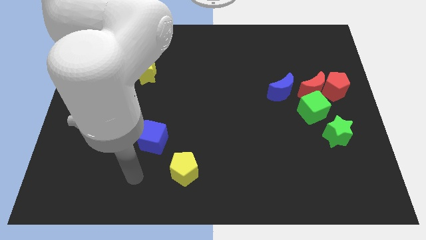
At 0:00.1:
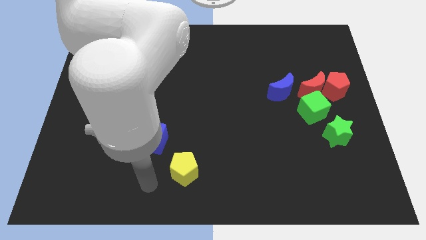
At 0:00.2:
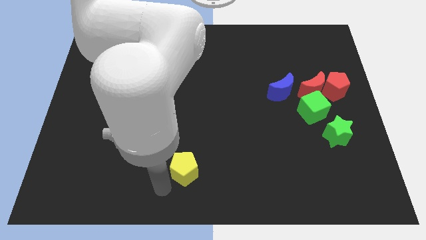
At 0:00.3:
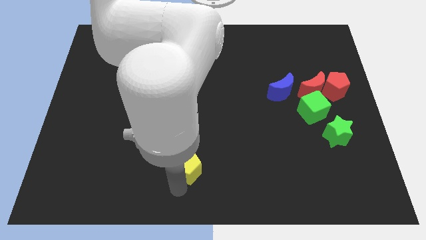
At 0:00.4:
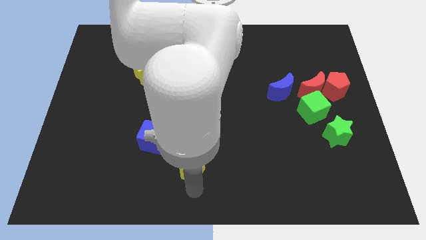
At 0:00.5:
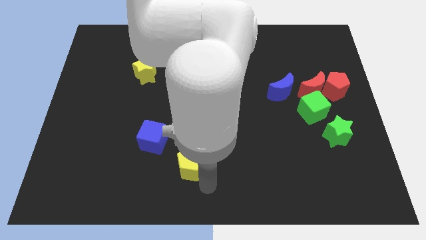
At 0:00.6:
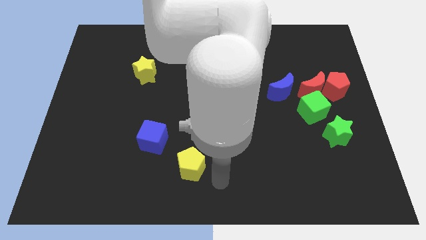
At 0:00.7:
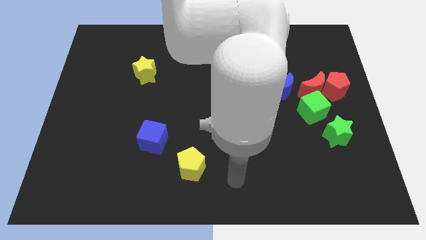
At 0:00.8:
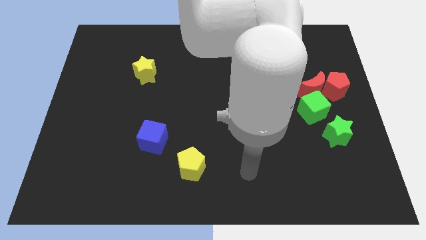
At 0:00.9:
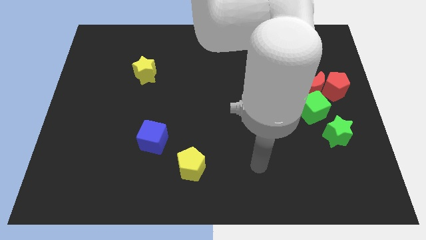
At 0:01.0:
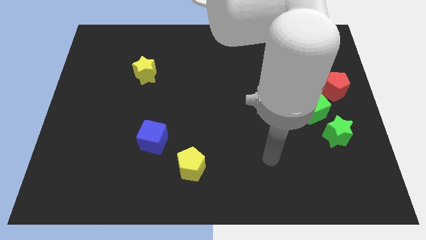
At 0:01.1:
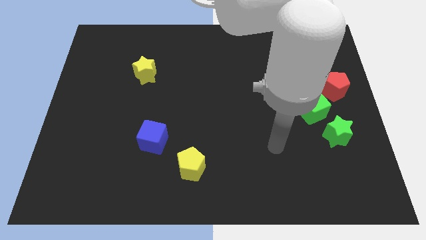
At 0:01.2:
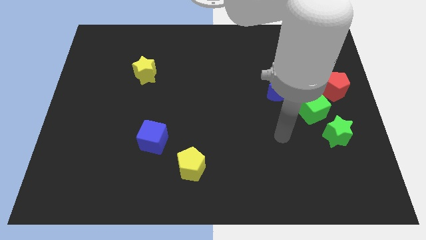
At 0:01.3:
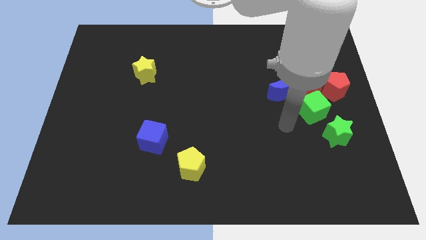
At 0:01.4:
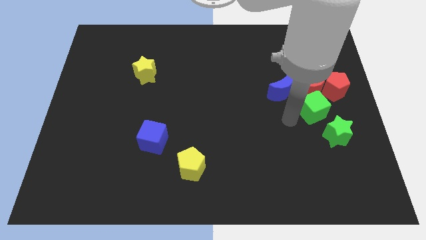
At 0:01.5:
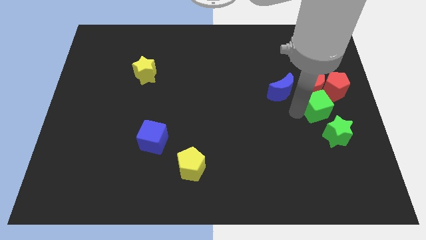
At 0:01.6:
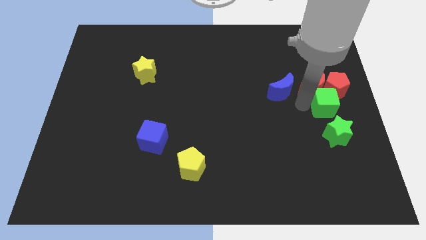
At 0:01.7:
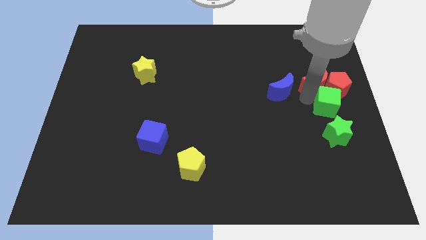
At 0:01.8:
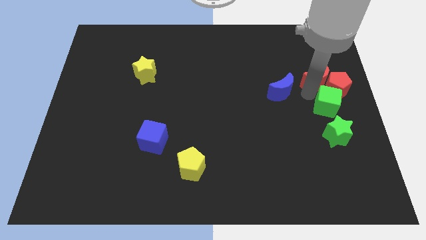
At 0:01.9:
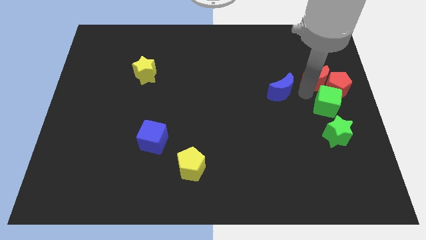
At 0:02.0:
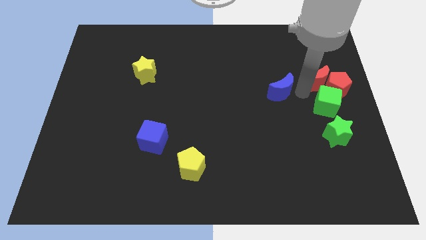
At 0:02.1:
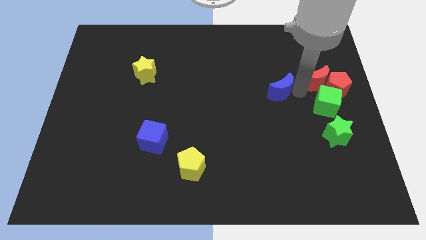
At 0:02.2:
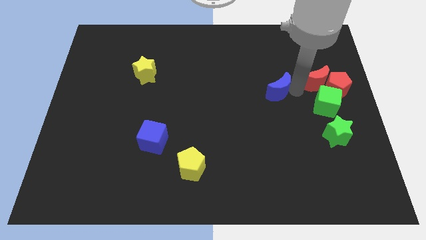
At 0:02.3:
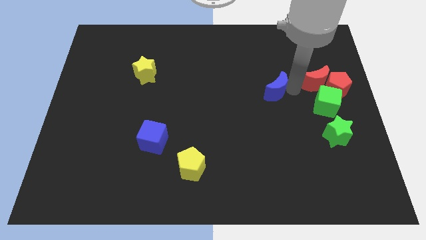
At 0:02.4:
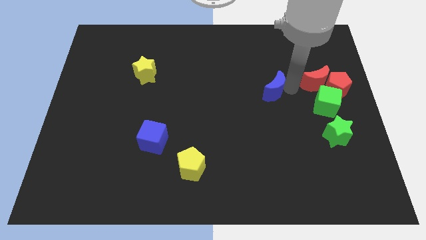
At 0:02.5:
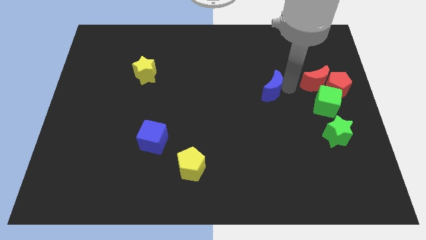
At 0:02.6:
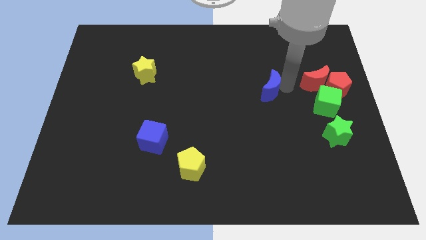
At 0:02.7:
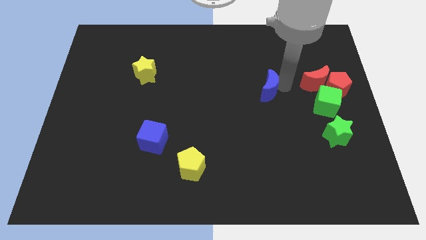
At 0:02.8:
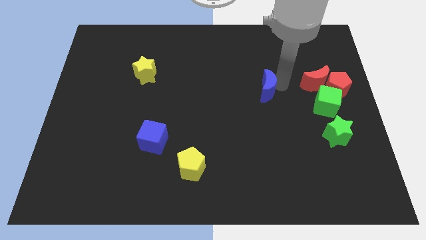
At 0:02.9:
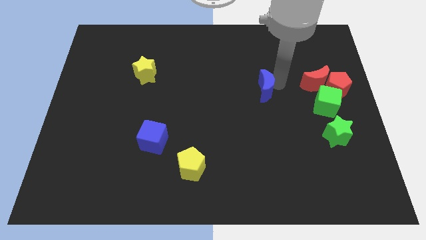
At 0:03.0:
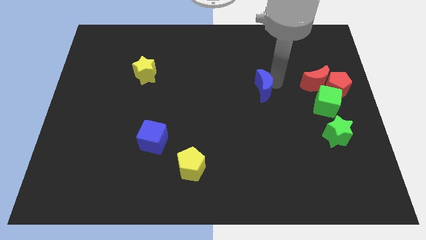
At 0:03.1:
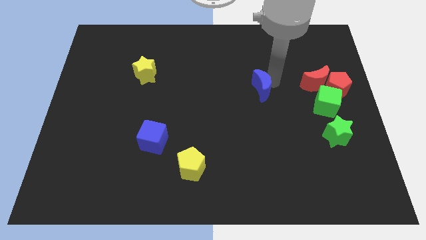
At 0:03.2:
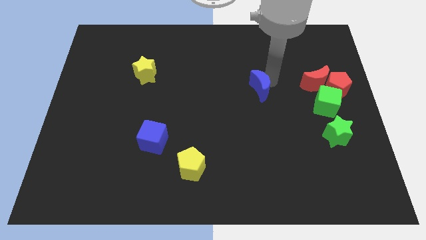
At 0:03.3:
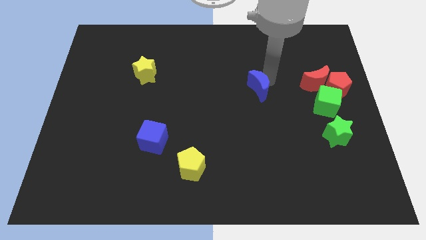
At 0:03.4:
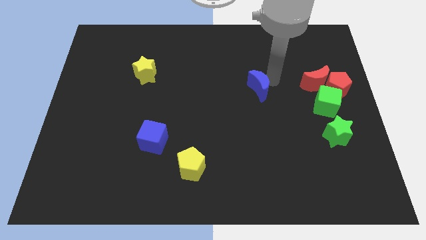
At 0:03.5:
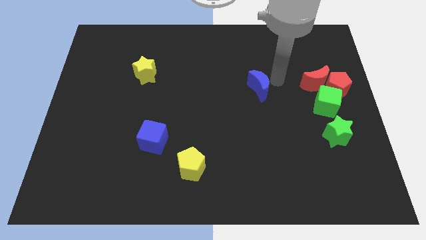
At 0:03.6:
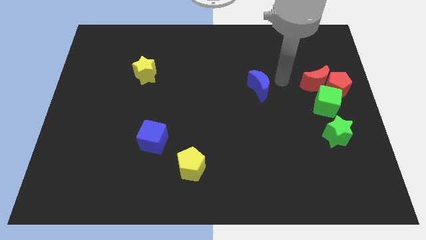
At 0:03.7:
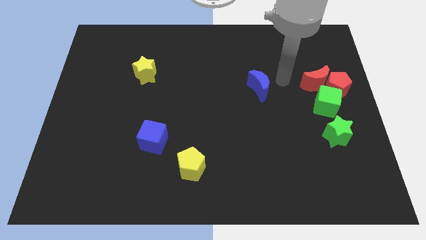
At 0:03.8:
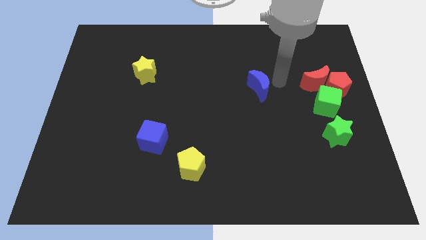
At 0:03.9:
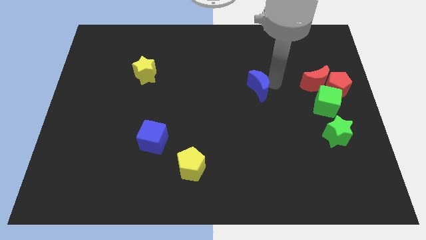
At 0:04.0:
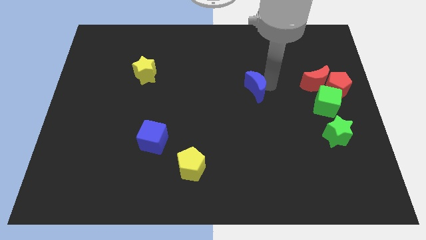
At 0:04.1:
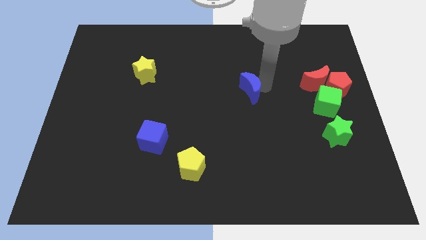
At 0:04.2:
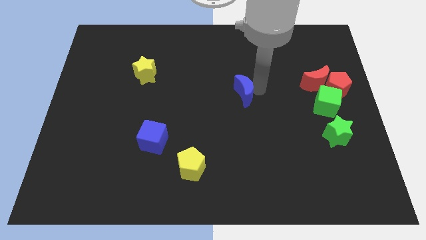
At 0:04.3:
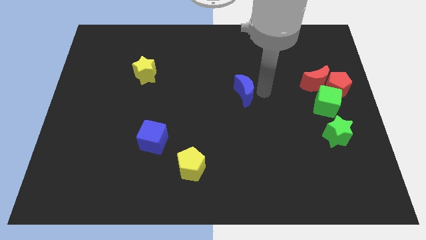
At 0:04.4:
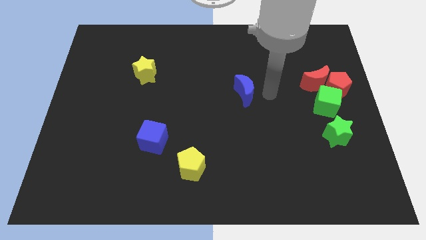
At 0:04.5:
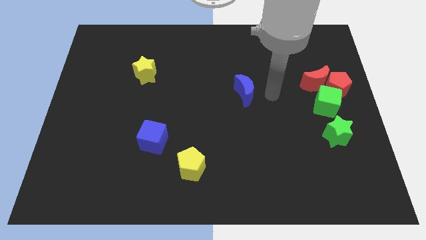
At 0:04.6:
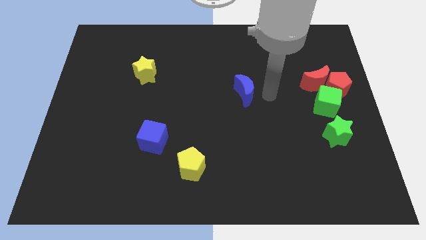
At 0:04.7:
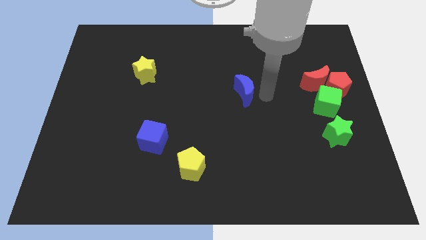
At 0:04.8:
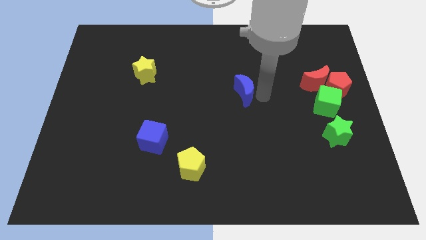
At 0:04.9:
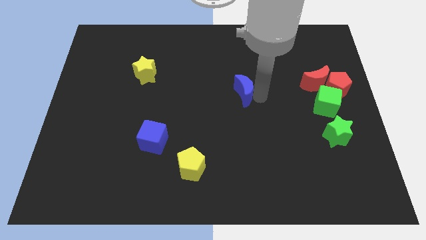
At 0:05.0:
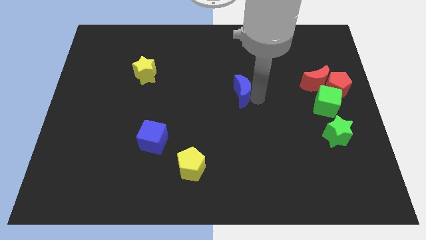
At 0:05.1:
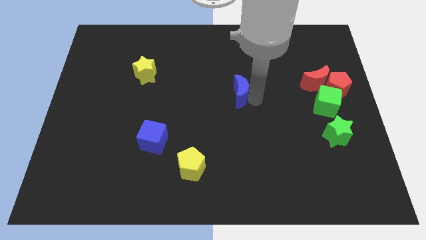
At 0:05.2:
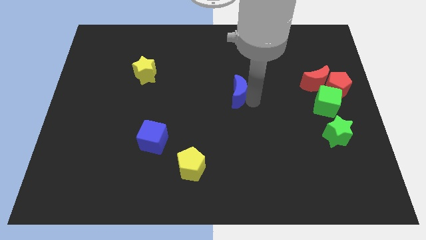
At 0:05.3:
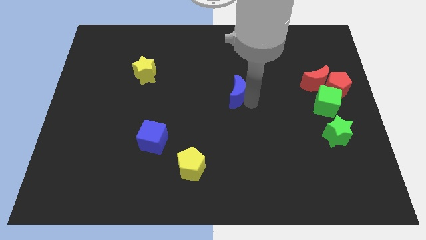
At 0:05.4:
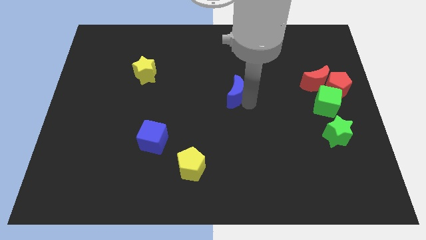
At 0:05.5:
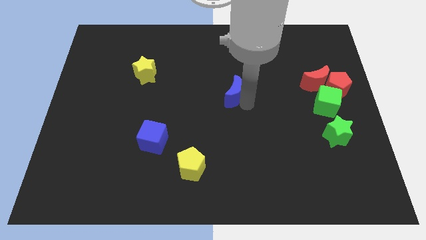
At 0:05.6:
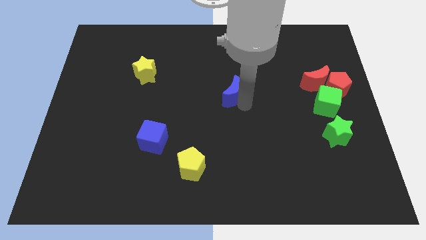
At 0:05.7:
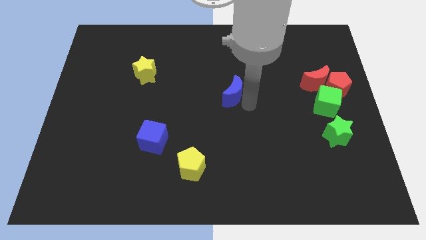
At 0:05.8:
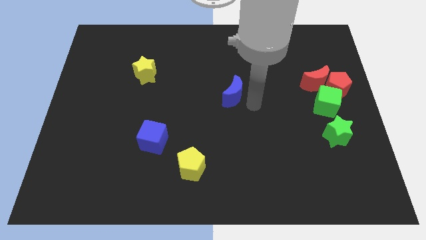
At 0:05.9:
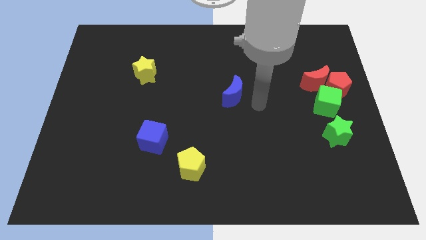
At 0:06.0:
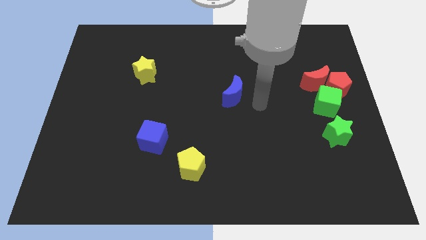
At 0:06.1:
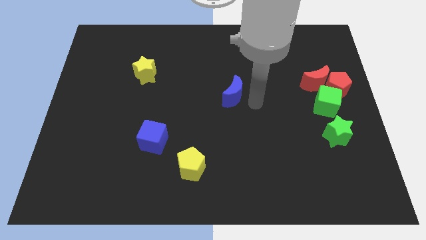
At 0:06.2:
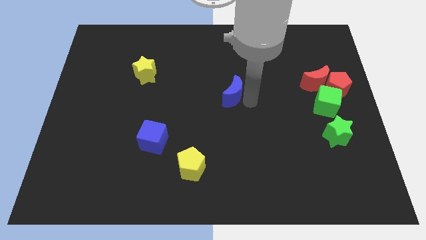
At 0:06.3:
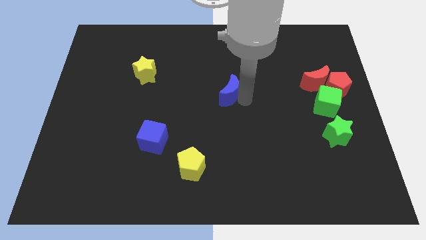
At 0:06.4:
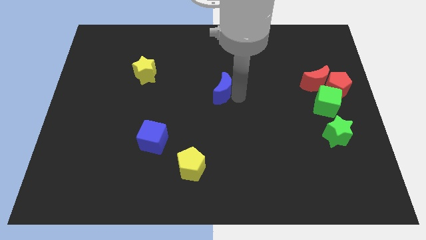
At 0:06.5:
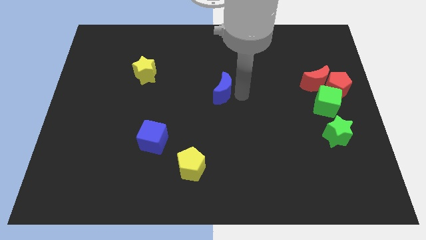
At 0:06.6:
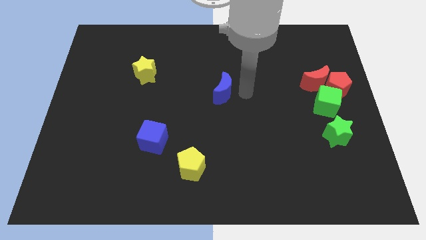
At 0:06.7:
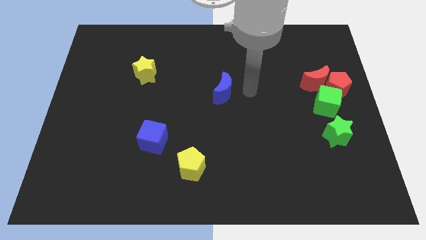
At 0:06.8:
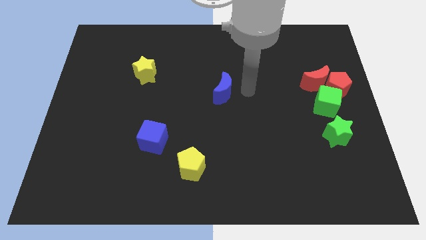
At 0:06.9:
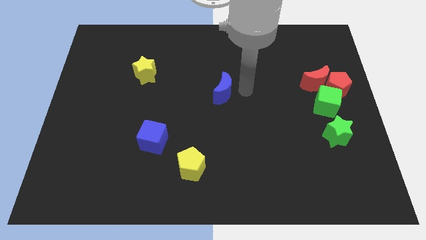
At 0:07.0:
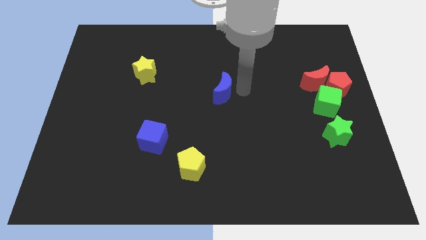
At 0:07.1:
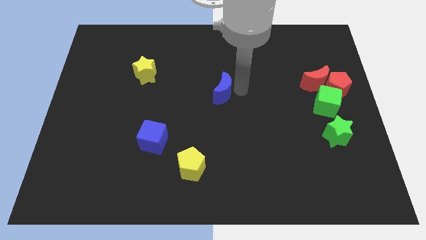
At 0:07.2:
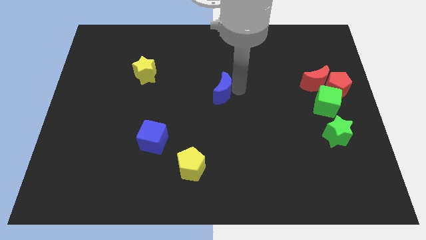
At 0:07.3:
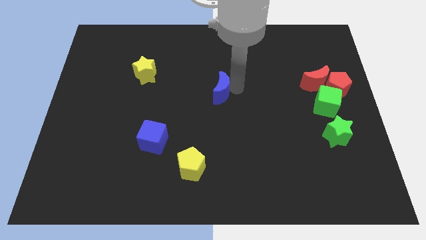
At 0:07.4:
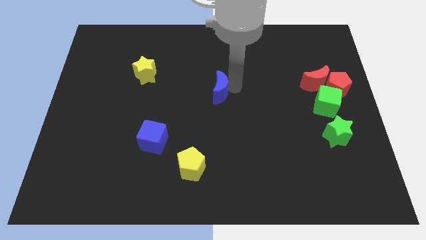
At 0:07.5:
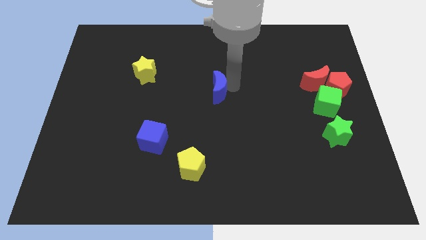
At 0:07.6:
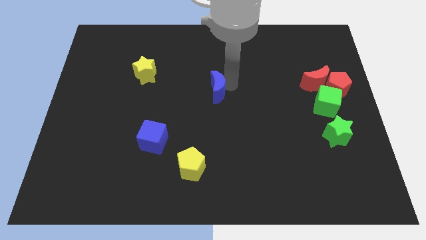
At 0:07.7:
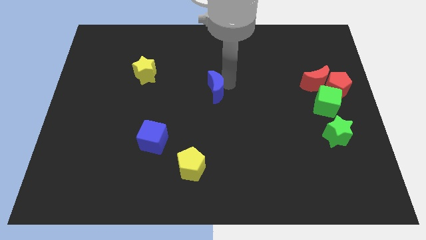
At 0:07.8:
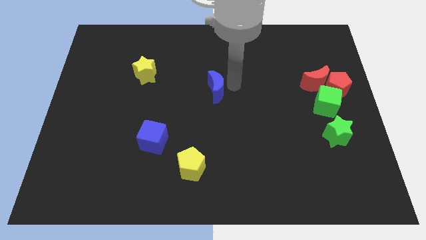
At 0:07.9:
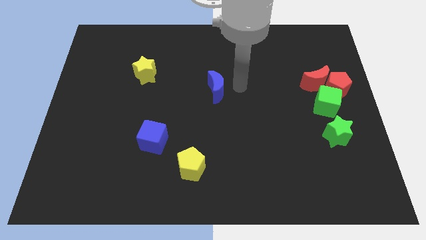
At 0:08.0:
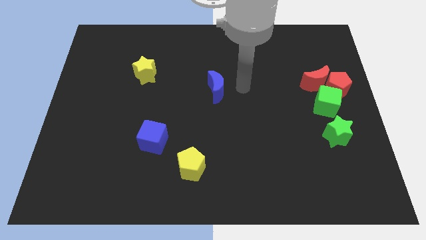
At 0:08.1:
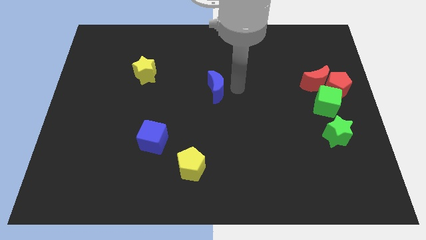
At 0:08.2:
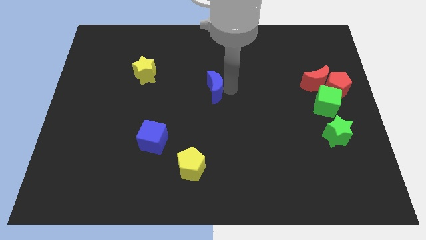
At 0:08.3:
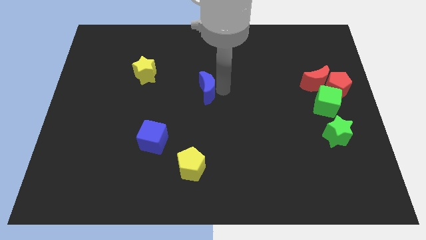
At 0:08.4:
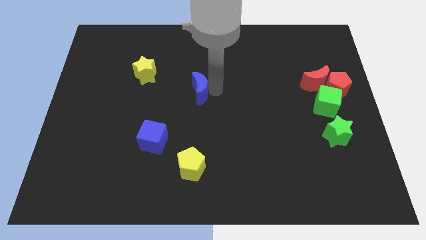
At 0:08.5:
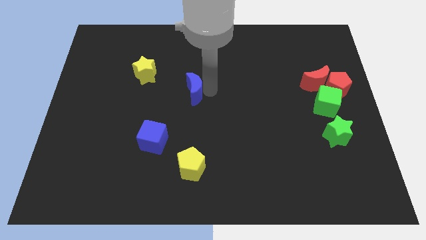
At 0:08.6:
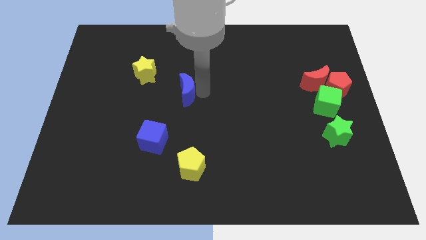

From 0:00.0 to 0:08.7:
push the blue moon to the bottom right of the yellow star
